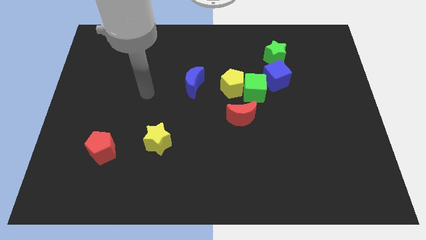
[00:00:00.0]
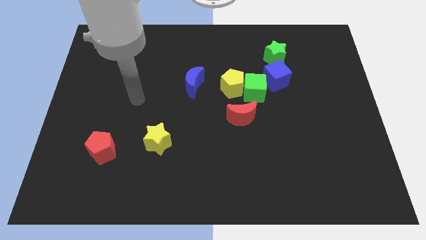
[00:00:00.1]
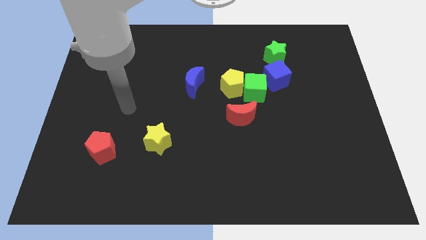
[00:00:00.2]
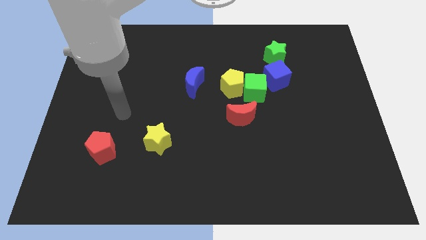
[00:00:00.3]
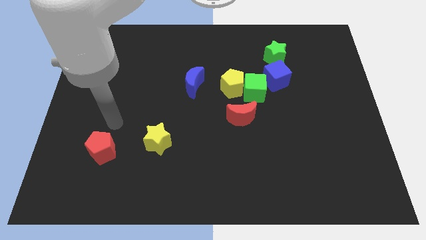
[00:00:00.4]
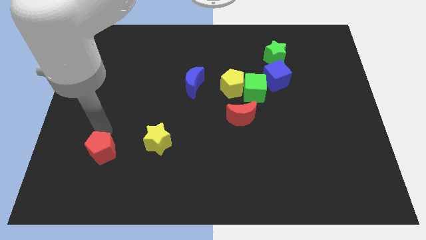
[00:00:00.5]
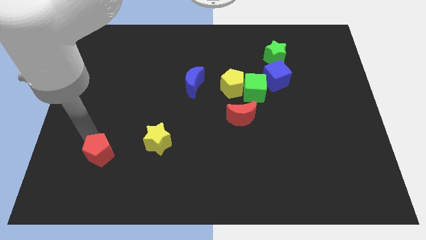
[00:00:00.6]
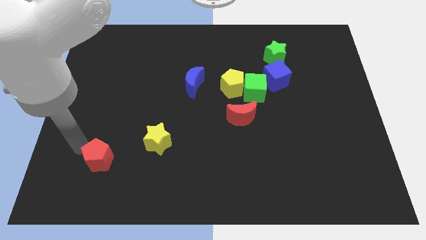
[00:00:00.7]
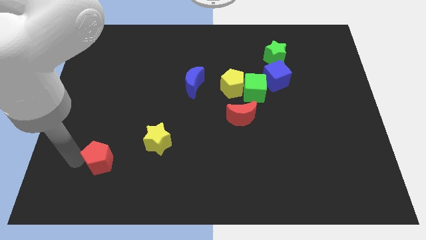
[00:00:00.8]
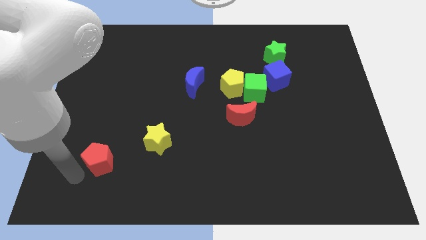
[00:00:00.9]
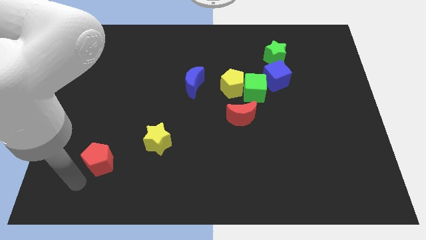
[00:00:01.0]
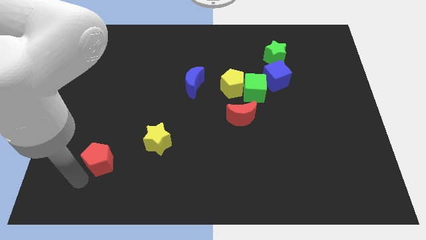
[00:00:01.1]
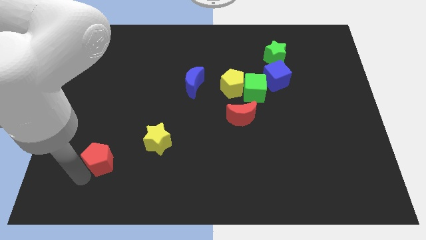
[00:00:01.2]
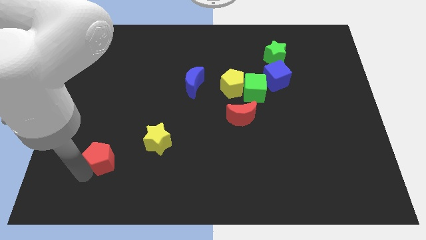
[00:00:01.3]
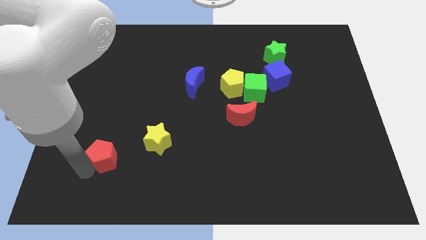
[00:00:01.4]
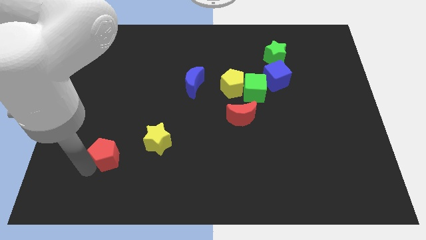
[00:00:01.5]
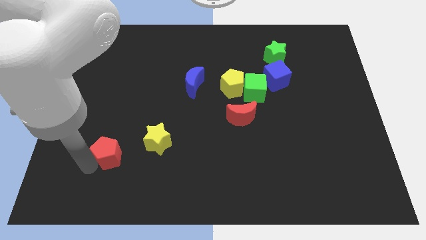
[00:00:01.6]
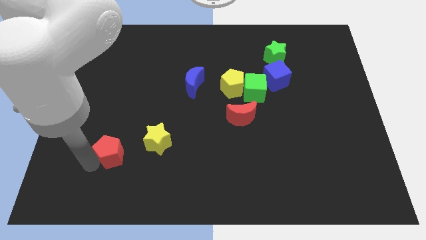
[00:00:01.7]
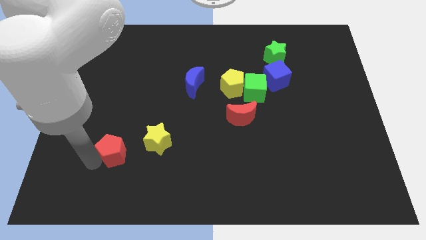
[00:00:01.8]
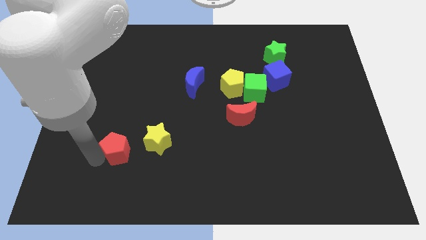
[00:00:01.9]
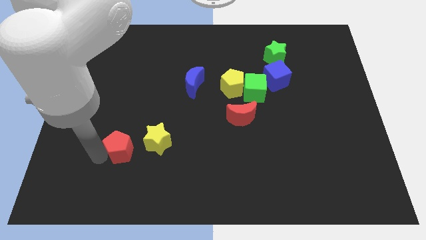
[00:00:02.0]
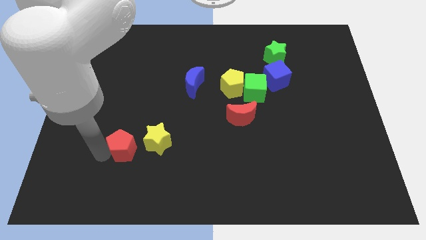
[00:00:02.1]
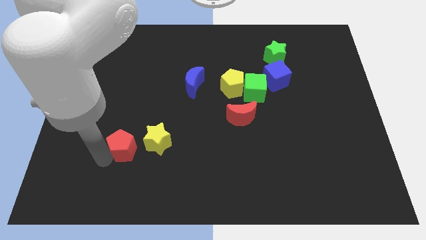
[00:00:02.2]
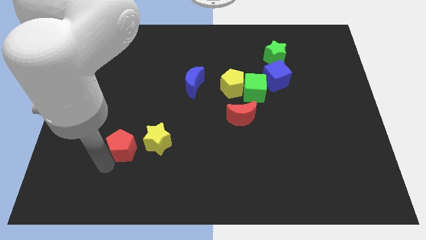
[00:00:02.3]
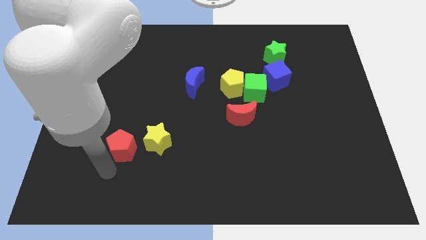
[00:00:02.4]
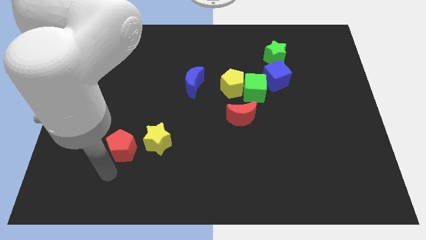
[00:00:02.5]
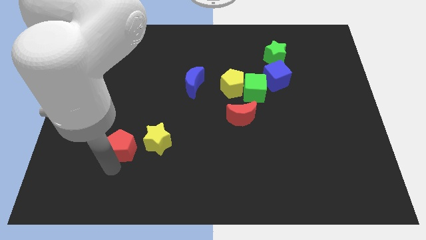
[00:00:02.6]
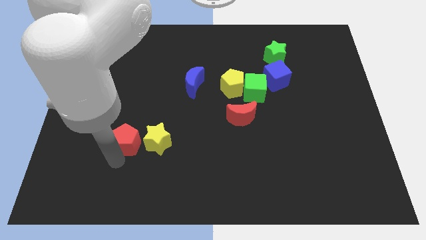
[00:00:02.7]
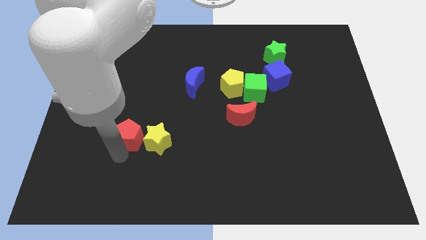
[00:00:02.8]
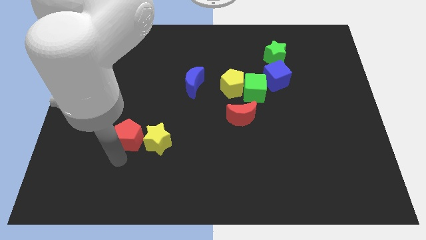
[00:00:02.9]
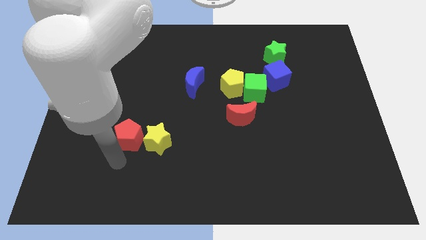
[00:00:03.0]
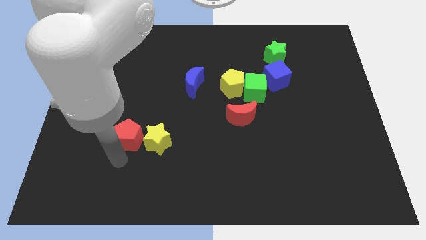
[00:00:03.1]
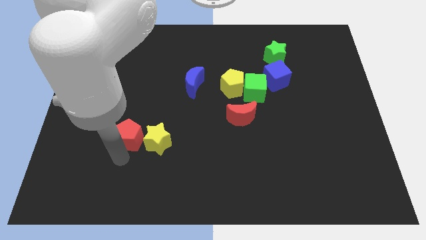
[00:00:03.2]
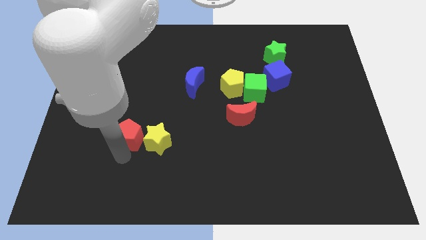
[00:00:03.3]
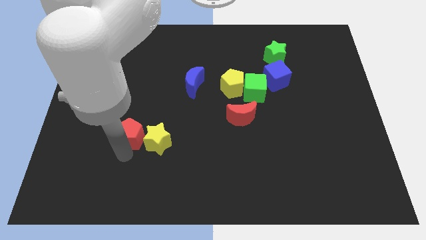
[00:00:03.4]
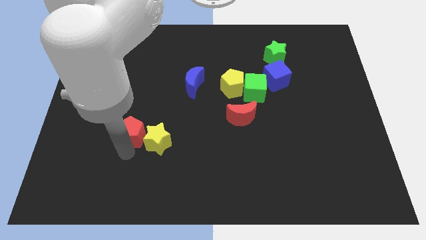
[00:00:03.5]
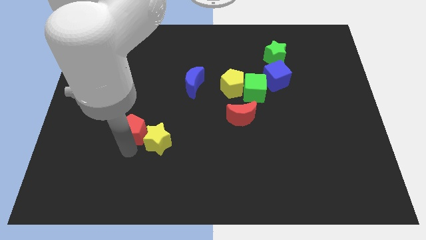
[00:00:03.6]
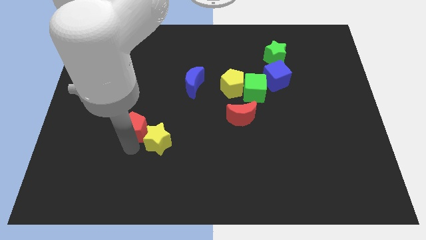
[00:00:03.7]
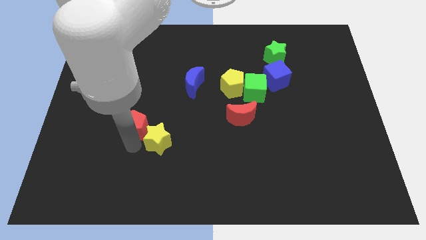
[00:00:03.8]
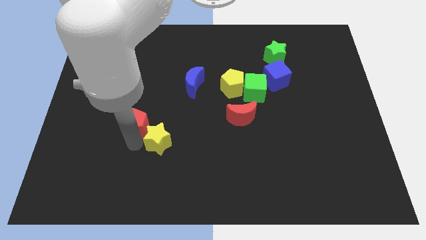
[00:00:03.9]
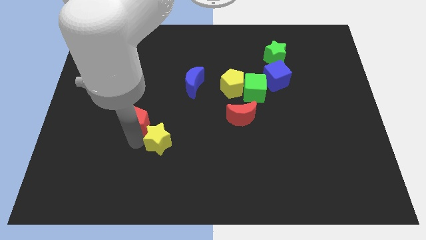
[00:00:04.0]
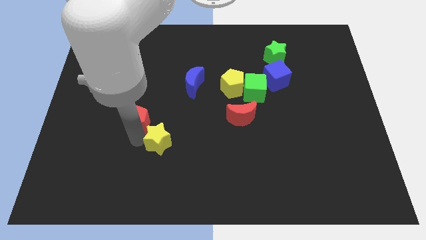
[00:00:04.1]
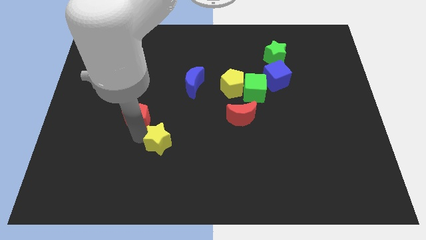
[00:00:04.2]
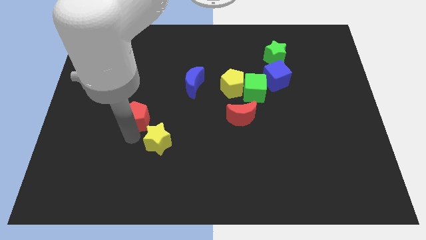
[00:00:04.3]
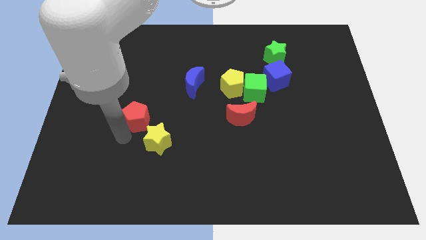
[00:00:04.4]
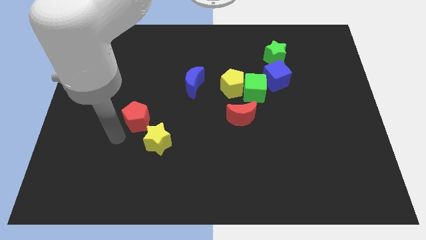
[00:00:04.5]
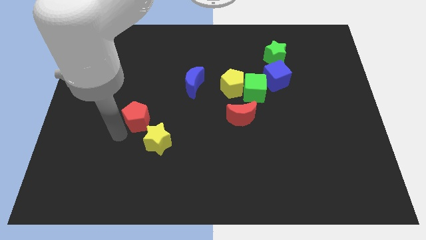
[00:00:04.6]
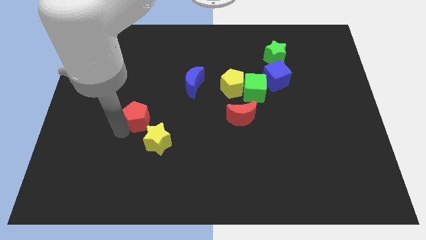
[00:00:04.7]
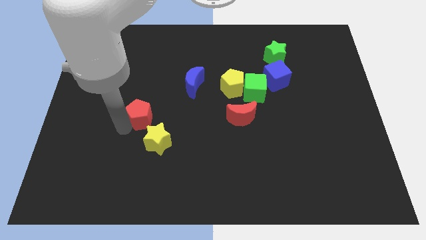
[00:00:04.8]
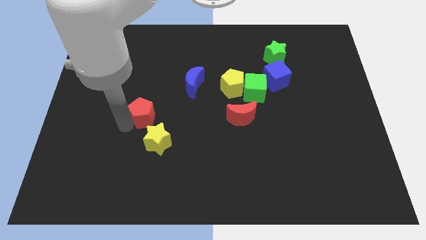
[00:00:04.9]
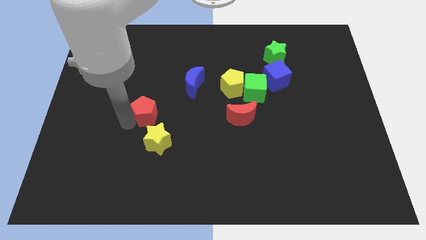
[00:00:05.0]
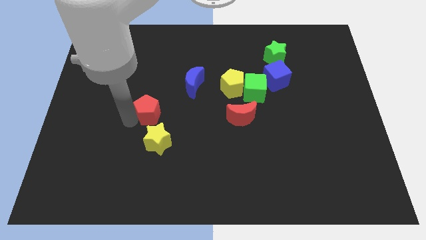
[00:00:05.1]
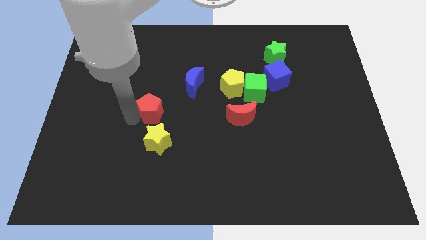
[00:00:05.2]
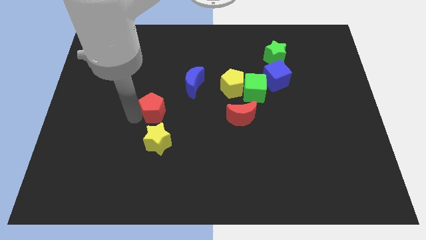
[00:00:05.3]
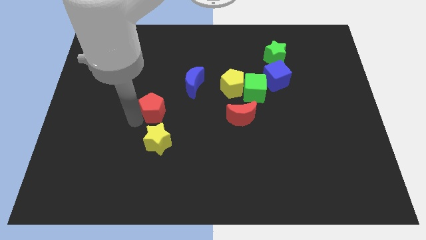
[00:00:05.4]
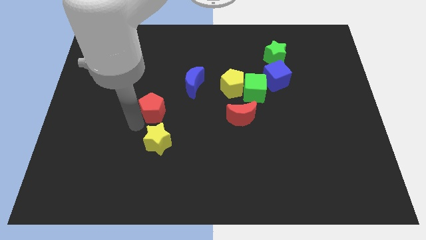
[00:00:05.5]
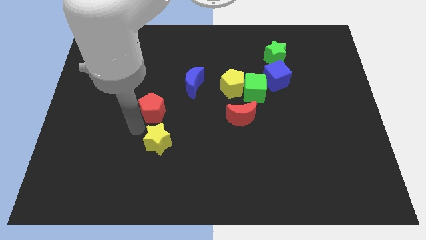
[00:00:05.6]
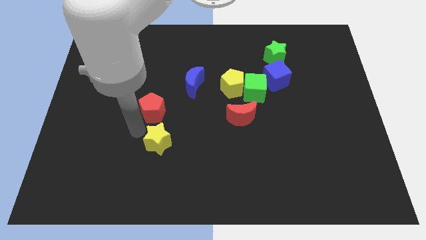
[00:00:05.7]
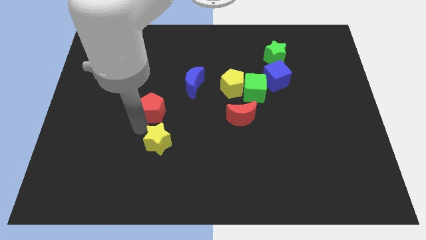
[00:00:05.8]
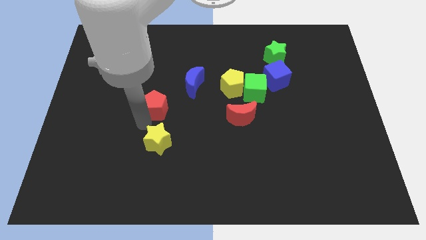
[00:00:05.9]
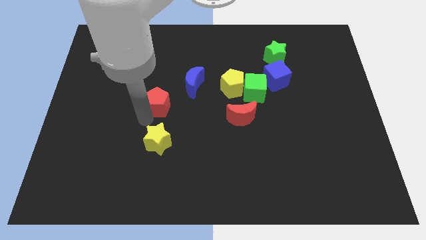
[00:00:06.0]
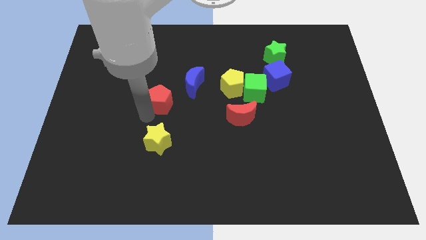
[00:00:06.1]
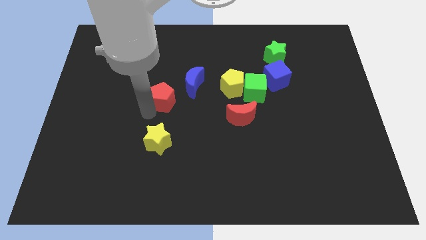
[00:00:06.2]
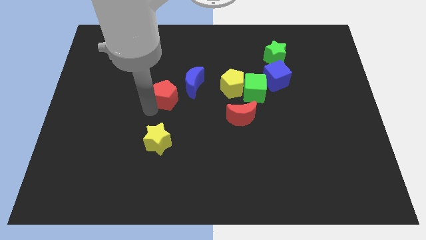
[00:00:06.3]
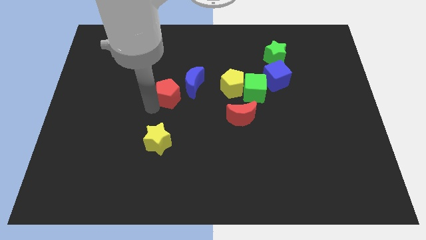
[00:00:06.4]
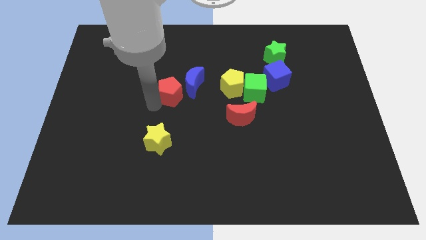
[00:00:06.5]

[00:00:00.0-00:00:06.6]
push the red pentagon next to the blue moon

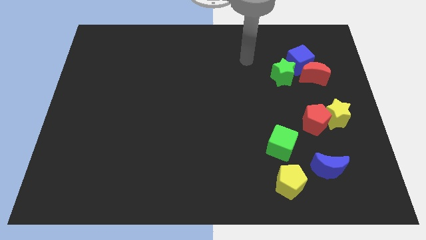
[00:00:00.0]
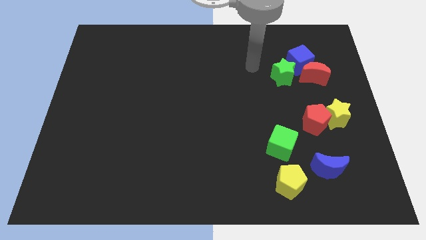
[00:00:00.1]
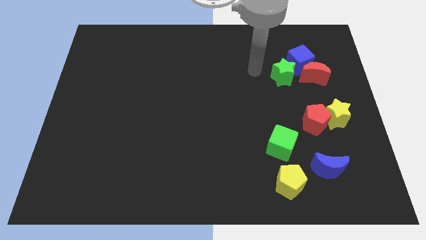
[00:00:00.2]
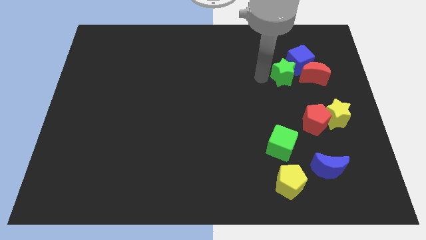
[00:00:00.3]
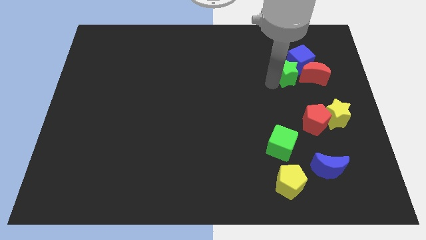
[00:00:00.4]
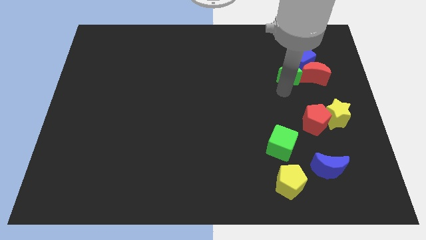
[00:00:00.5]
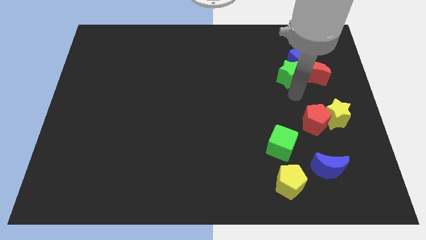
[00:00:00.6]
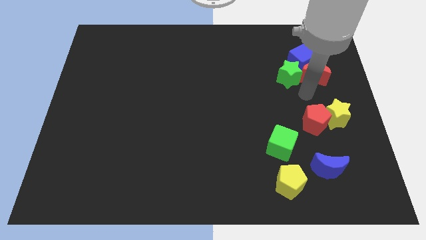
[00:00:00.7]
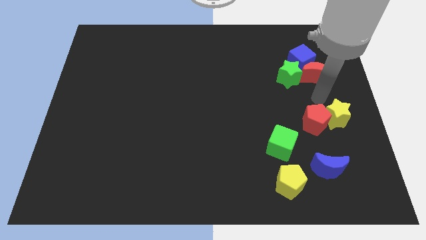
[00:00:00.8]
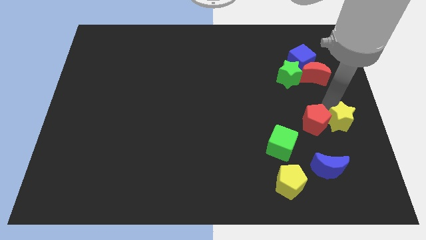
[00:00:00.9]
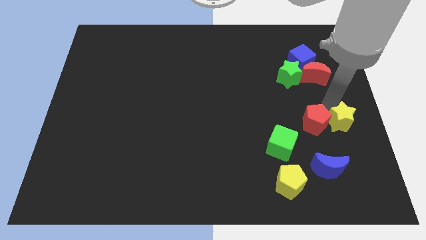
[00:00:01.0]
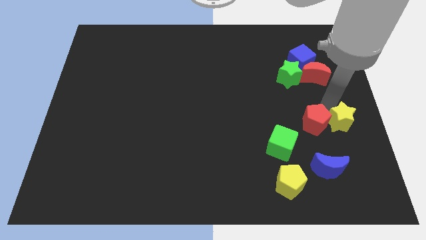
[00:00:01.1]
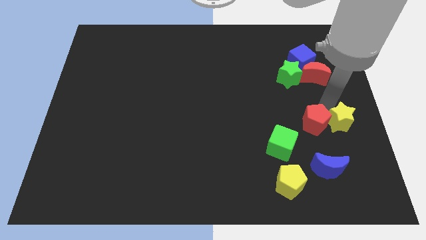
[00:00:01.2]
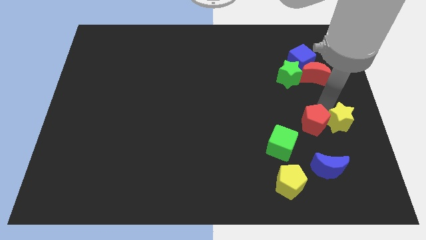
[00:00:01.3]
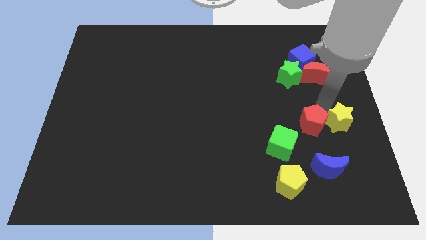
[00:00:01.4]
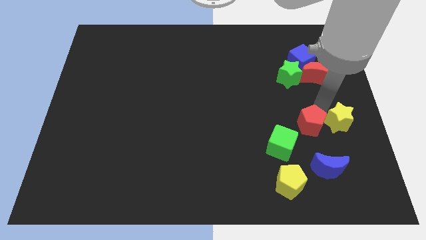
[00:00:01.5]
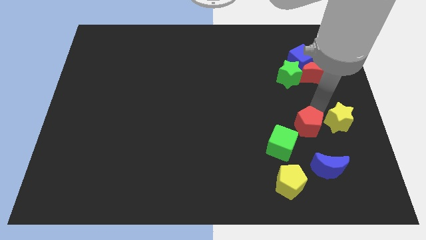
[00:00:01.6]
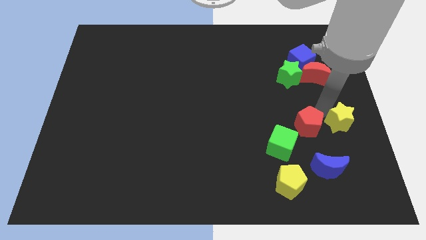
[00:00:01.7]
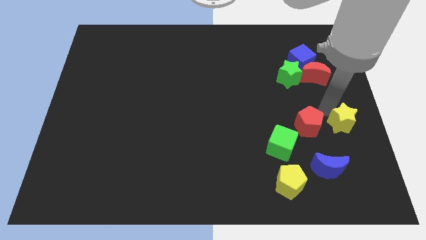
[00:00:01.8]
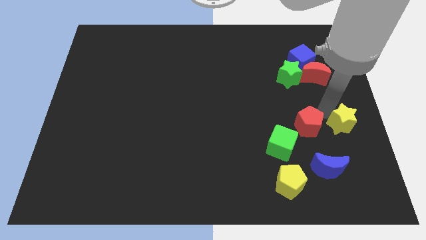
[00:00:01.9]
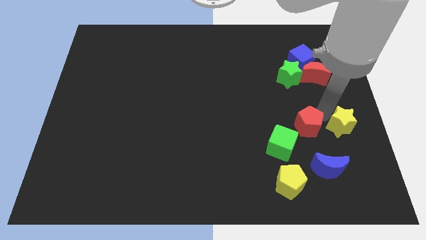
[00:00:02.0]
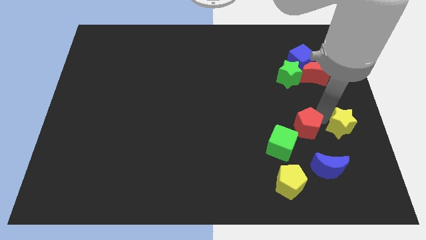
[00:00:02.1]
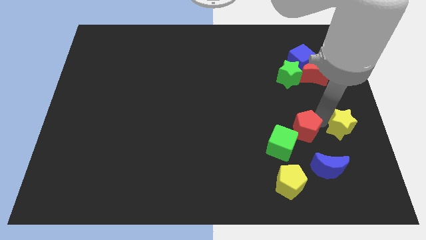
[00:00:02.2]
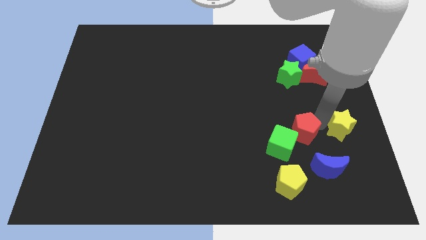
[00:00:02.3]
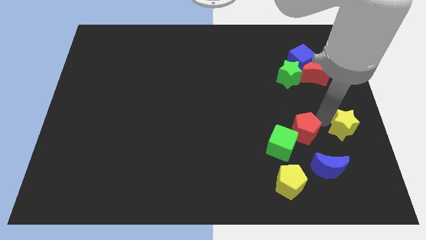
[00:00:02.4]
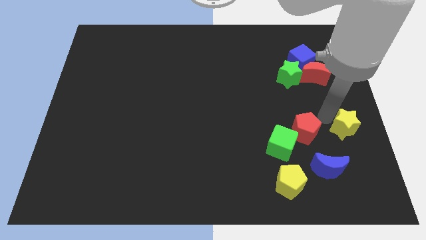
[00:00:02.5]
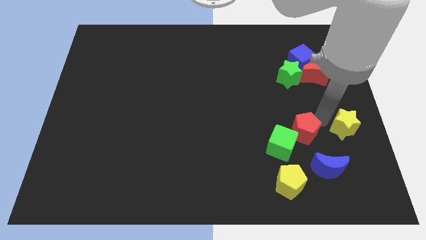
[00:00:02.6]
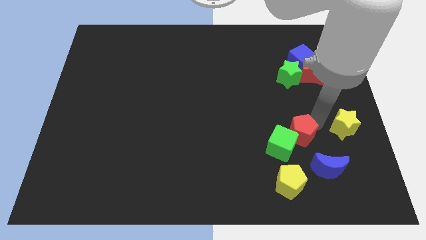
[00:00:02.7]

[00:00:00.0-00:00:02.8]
push the red pentagon next to the green cube
